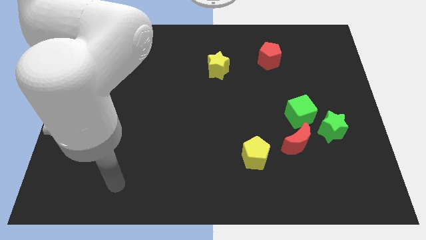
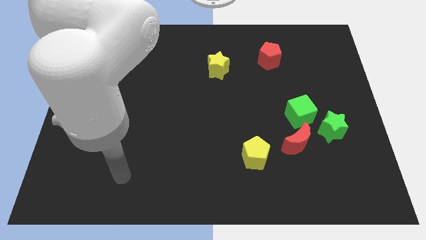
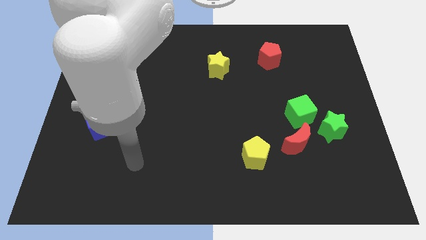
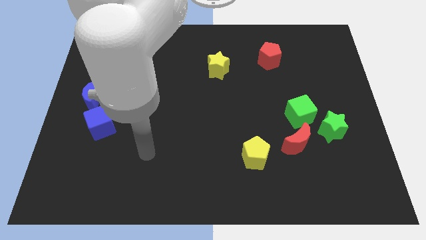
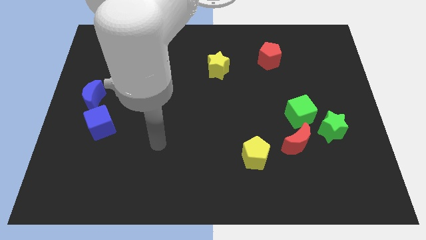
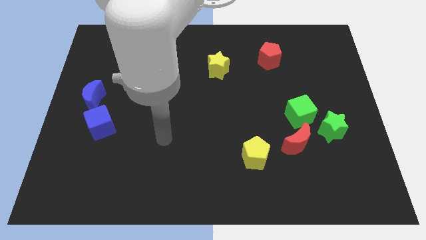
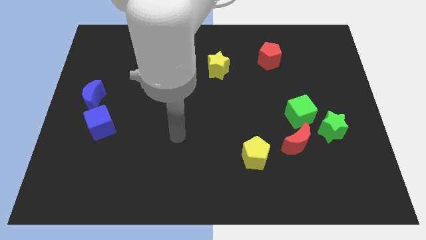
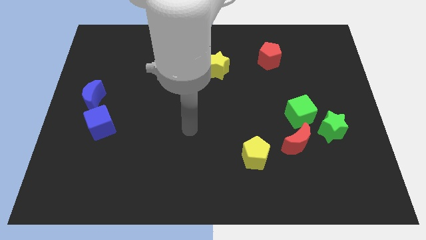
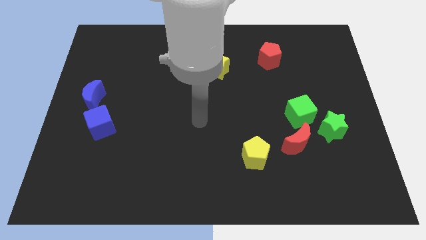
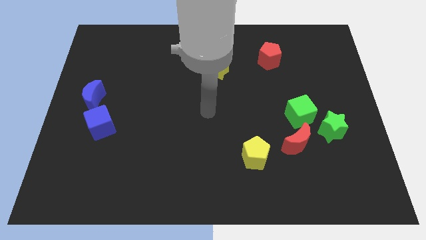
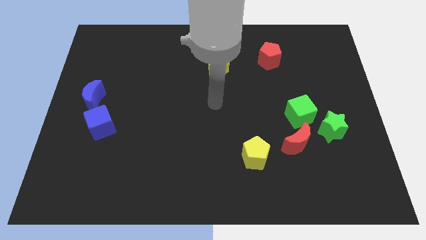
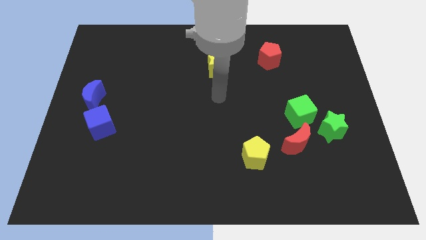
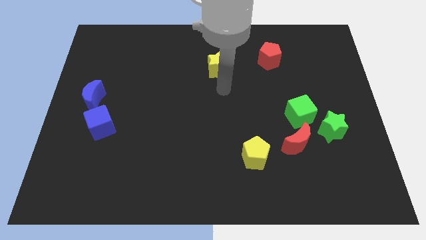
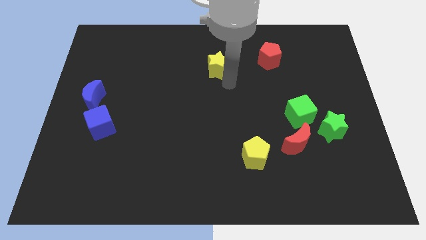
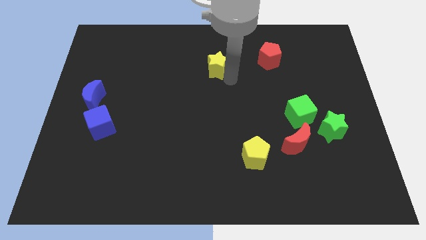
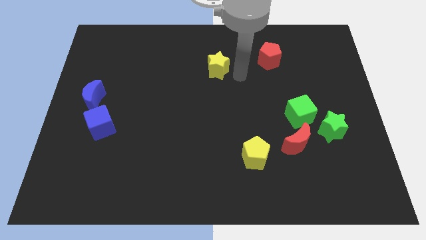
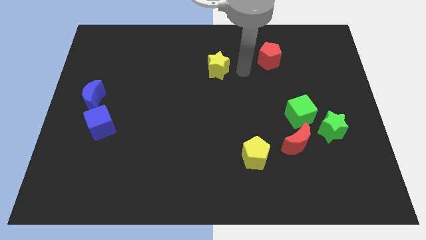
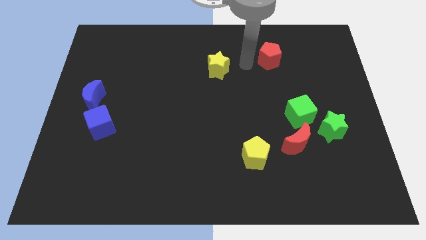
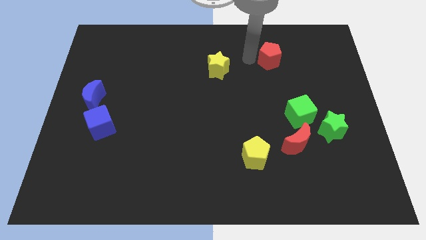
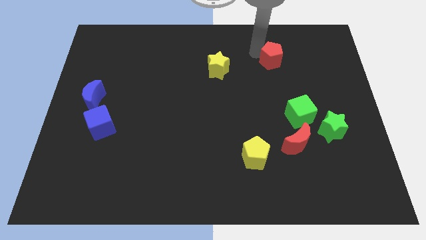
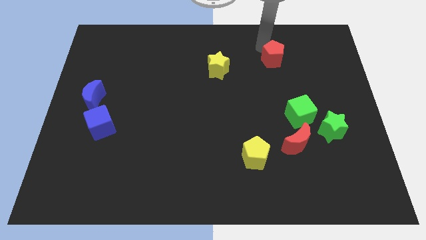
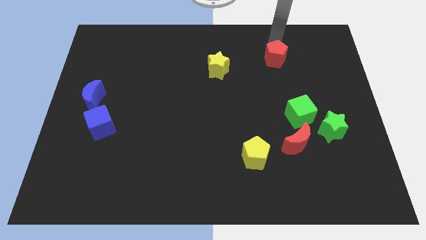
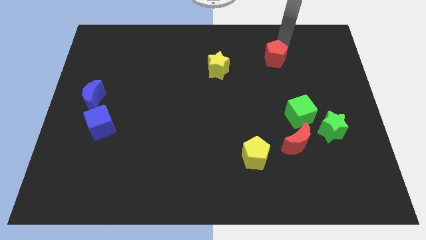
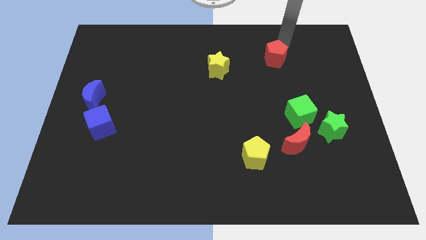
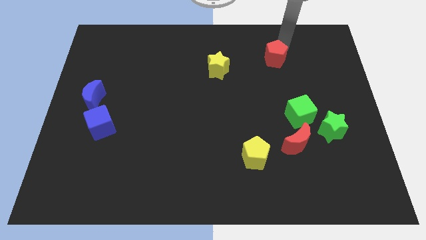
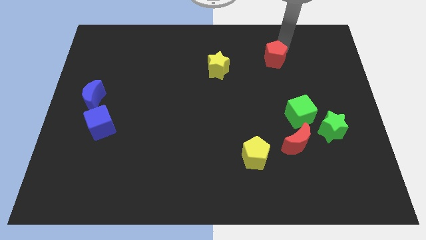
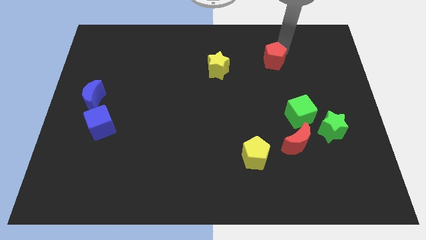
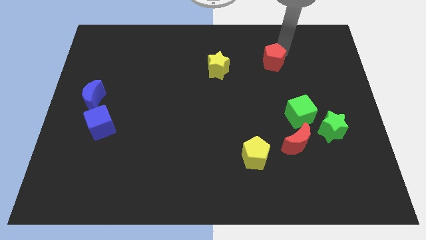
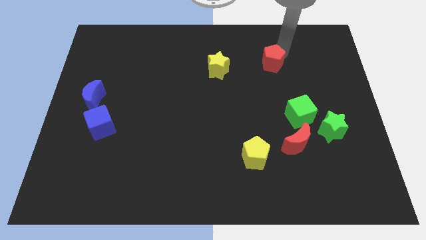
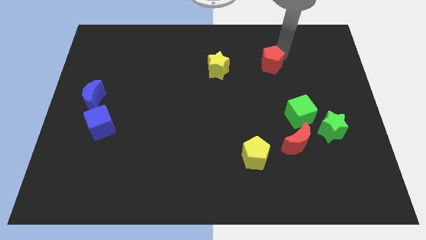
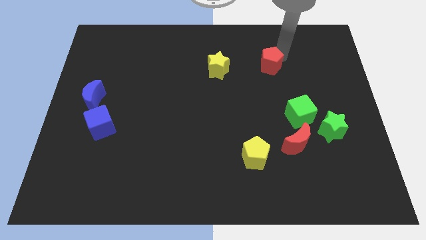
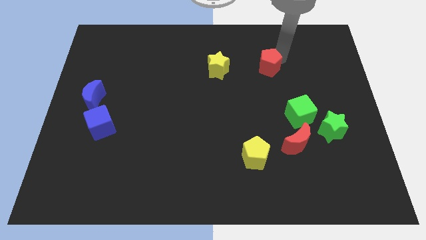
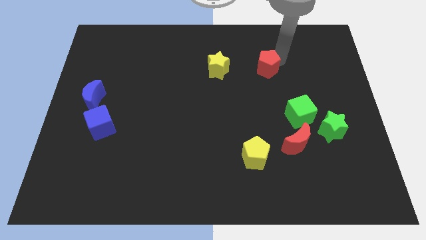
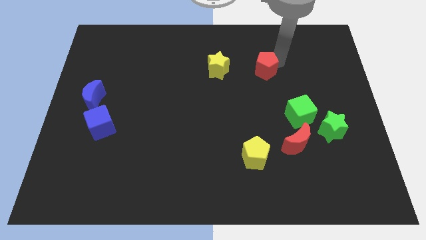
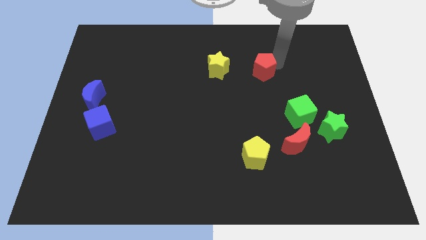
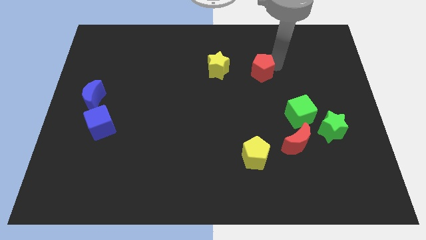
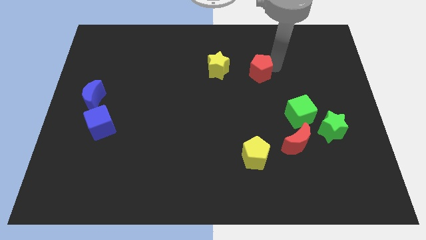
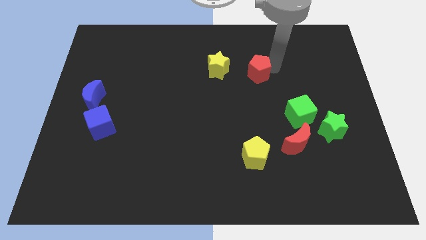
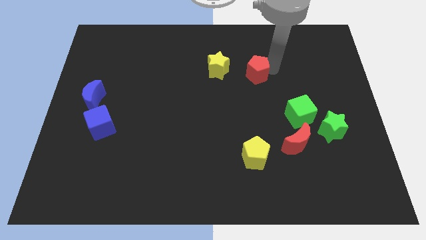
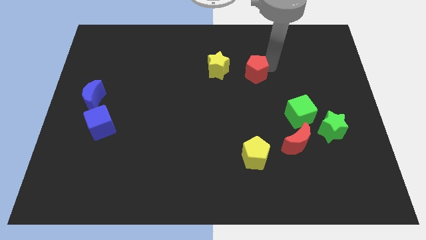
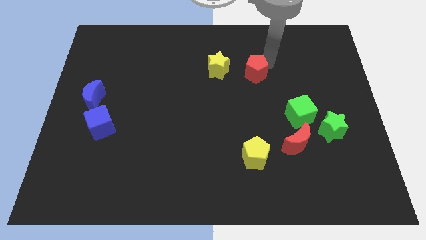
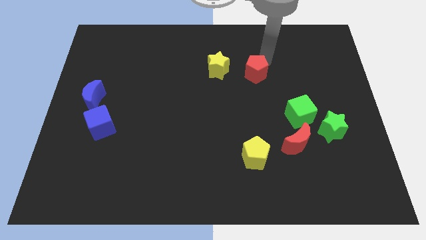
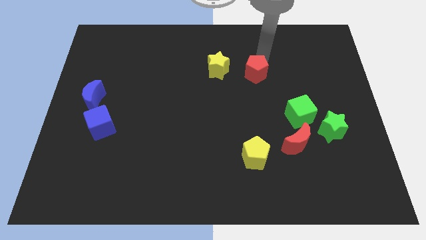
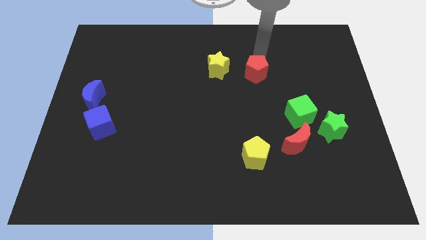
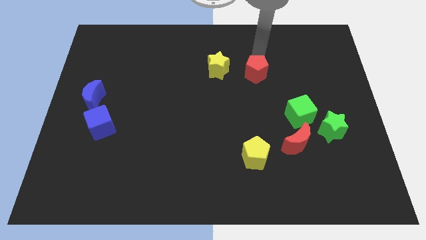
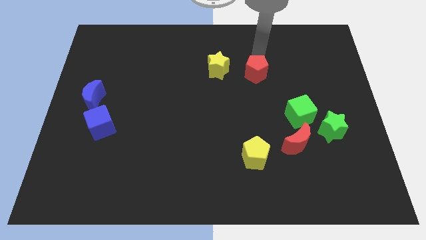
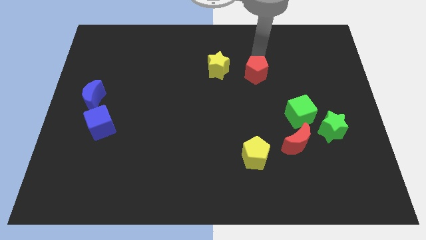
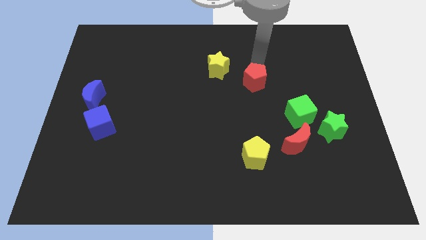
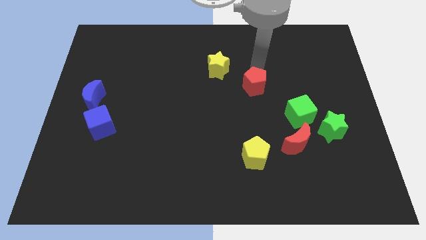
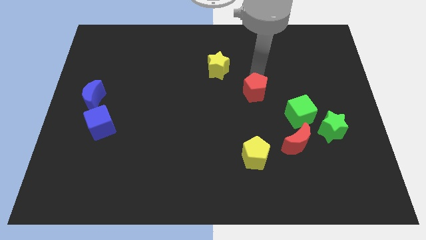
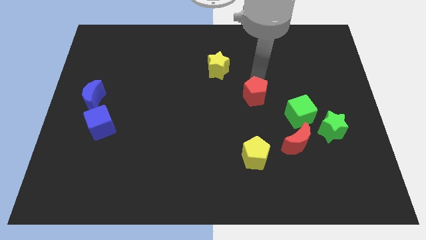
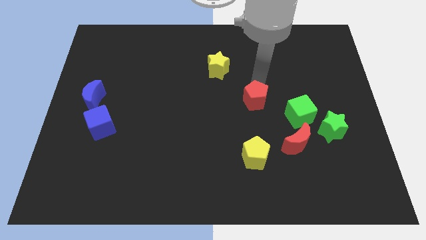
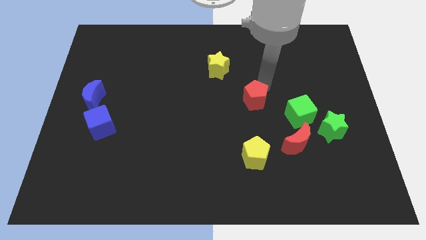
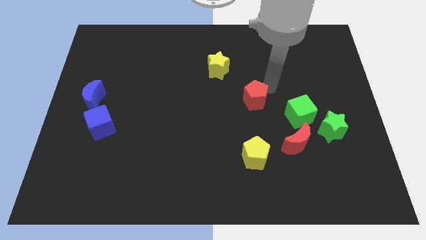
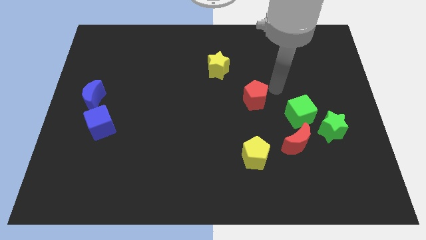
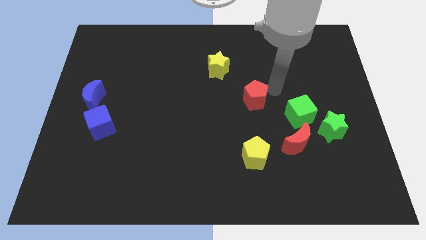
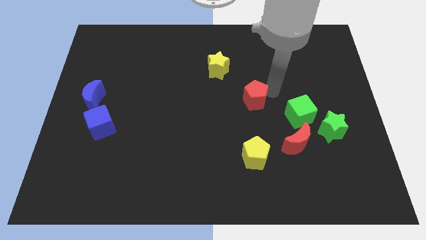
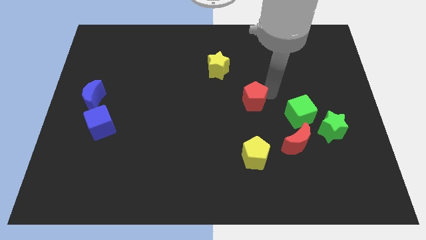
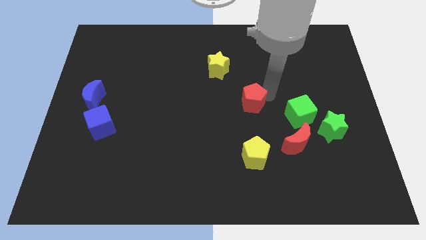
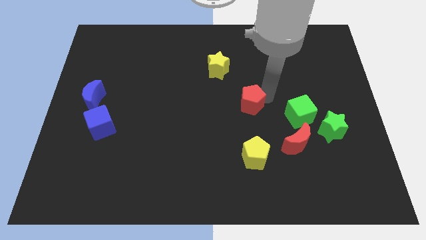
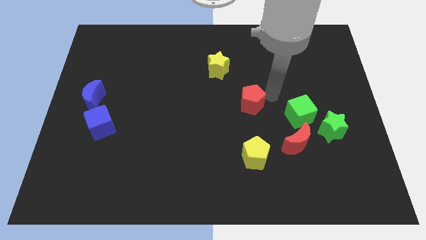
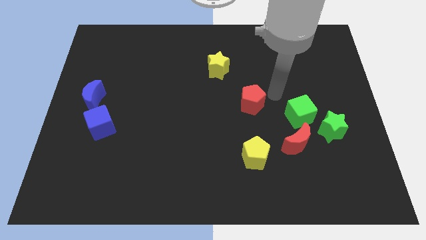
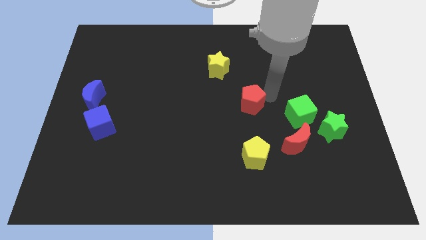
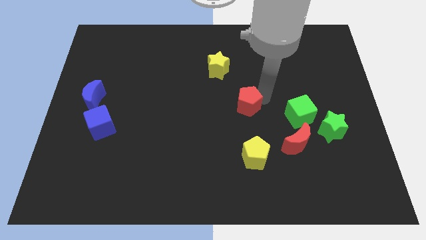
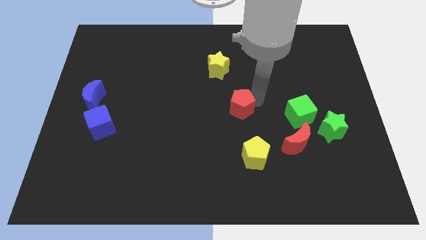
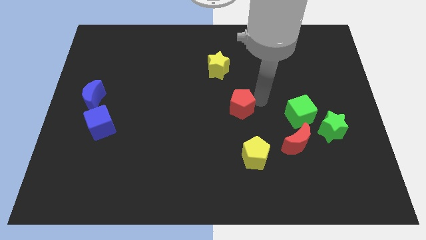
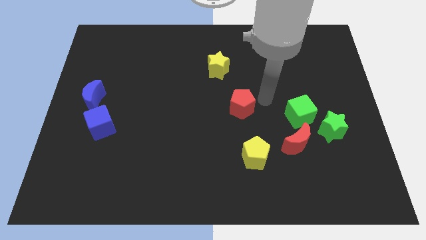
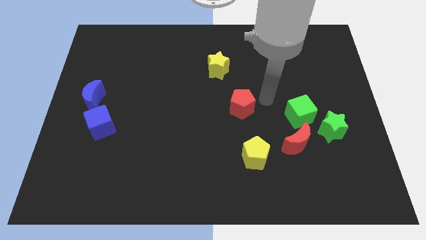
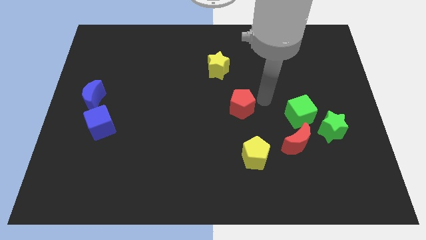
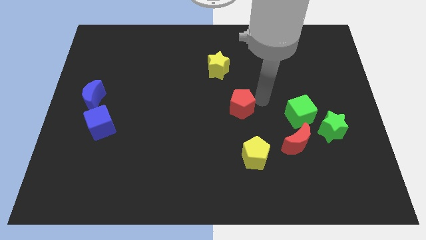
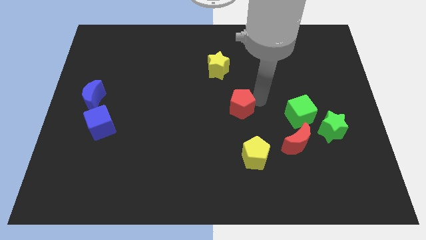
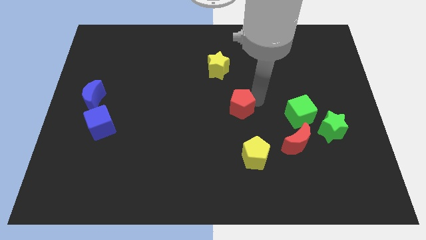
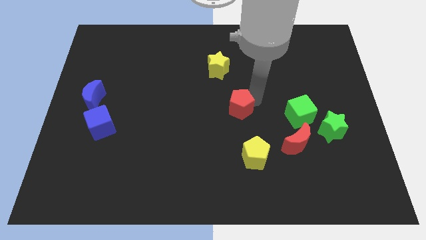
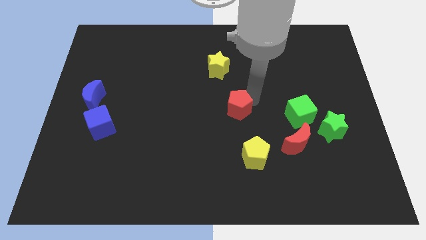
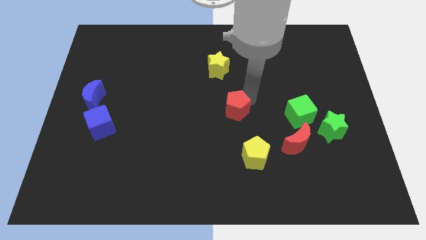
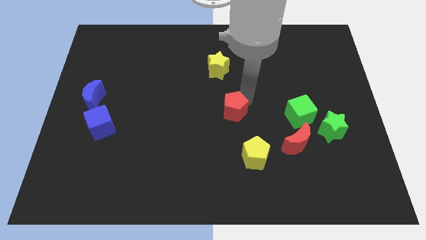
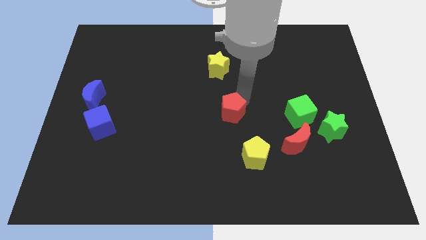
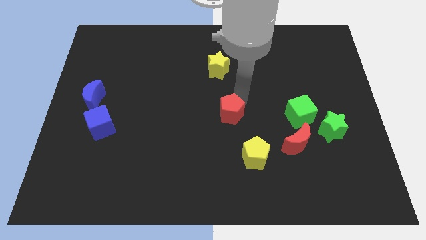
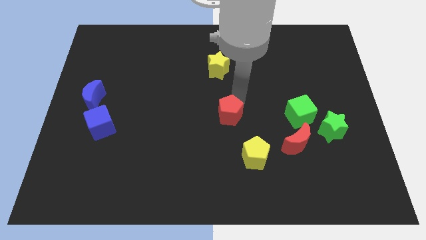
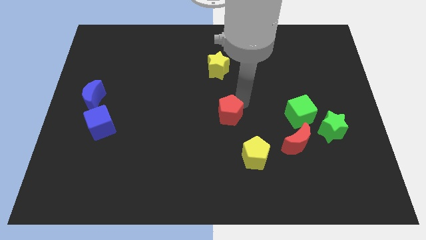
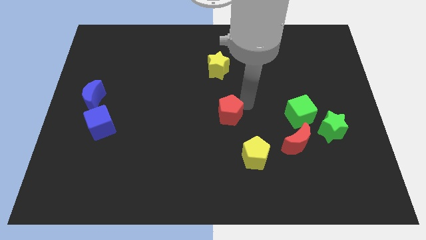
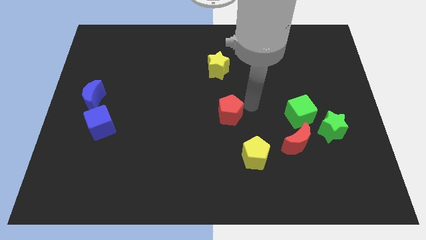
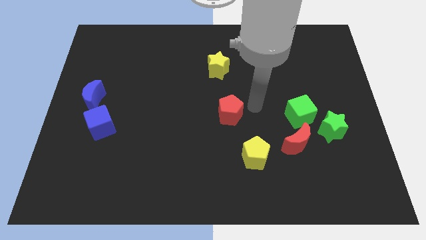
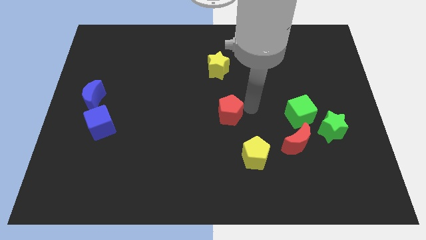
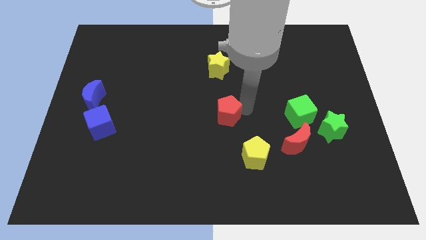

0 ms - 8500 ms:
push the red pentagon downwards and then left
